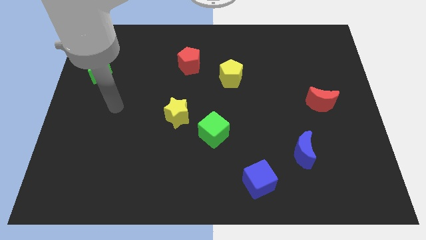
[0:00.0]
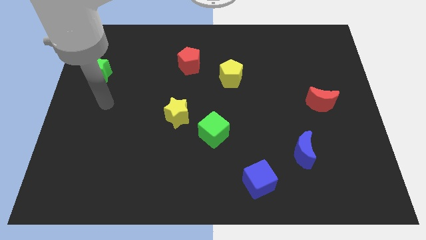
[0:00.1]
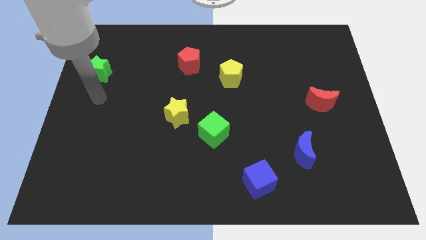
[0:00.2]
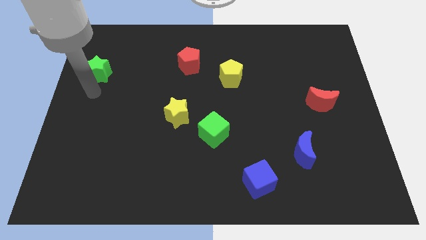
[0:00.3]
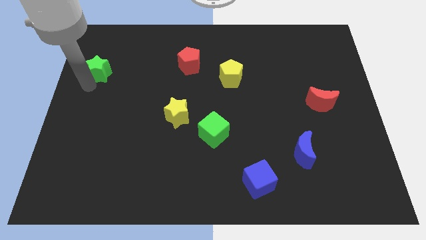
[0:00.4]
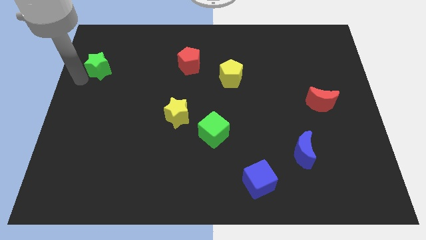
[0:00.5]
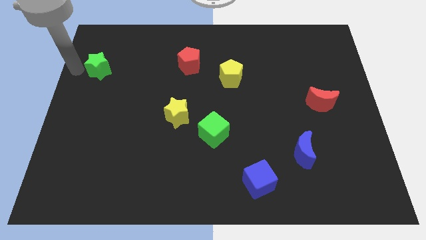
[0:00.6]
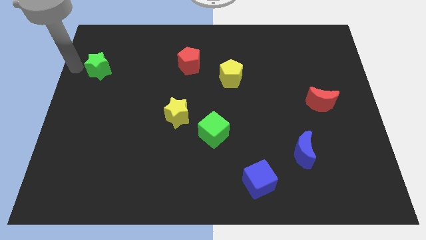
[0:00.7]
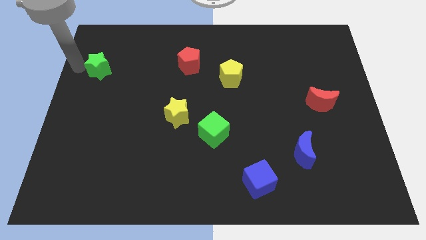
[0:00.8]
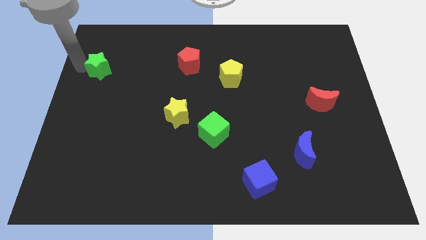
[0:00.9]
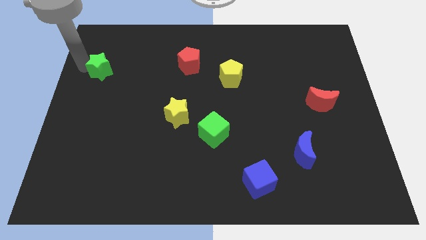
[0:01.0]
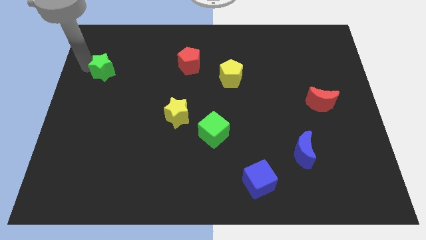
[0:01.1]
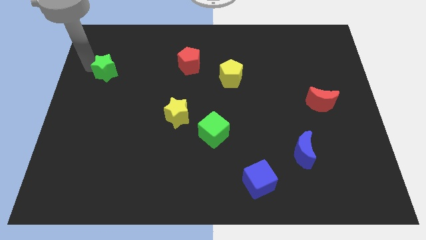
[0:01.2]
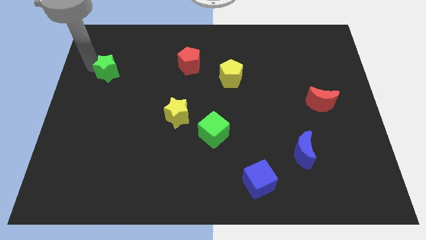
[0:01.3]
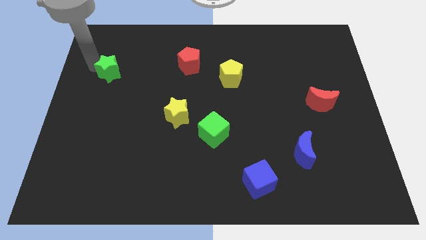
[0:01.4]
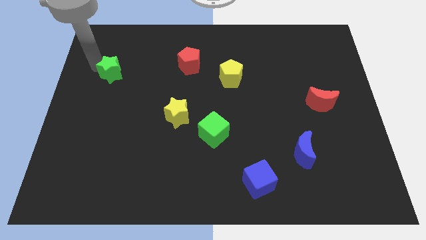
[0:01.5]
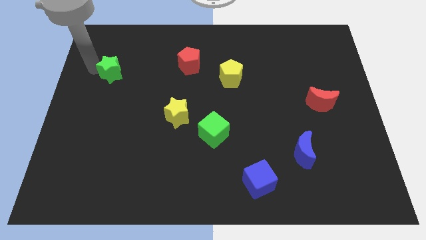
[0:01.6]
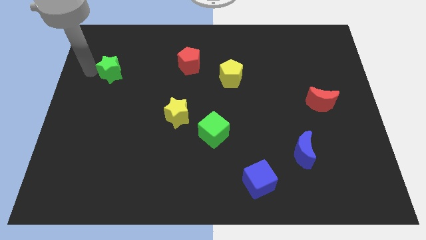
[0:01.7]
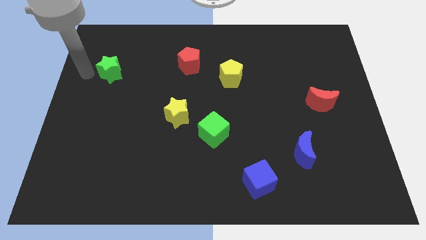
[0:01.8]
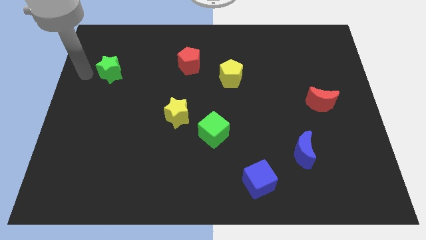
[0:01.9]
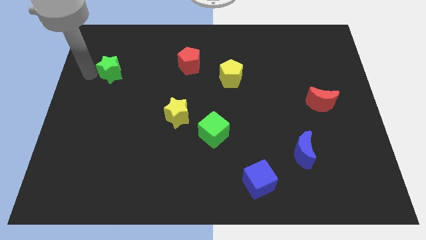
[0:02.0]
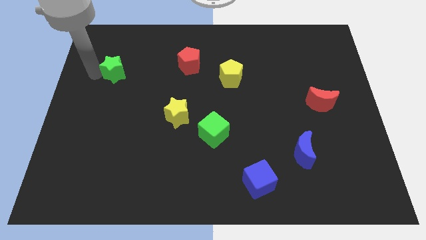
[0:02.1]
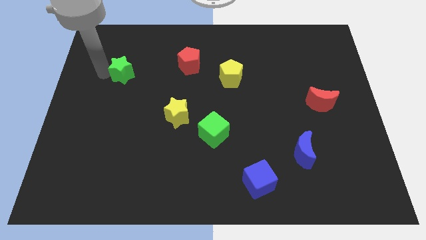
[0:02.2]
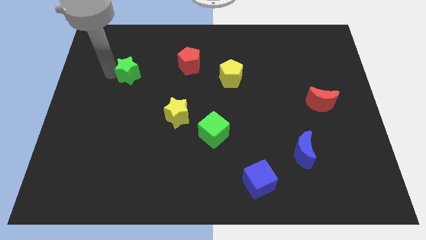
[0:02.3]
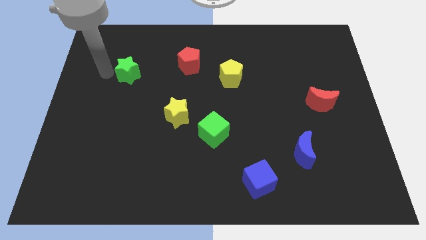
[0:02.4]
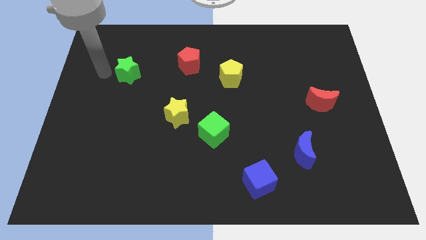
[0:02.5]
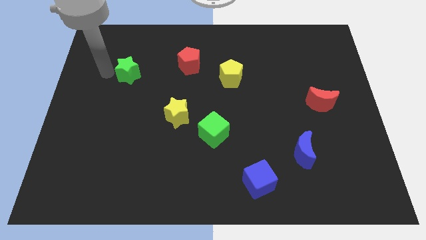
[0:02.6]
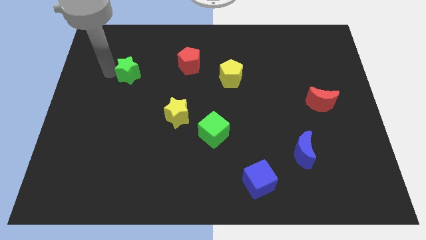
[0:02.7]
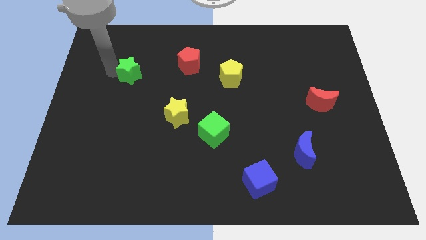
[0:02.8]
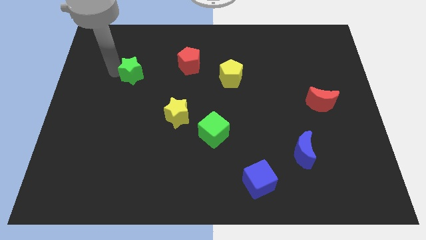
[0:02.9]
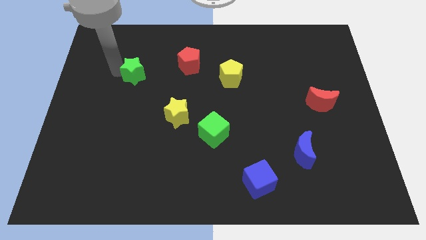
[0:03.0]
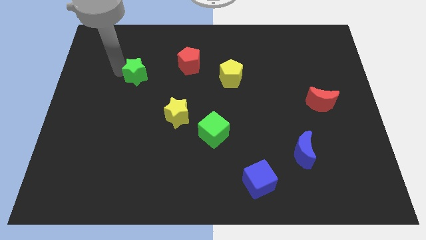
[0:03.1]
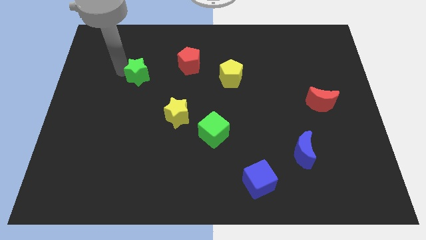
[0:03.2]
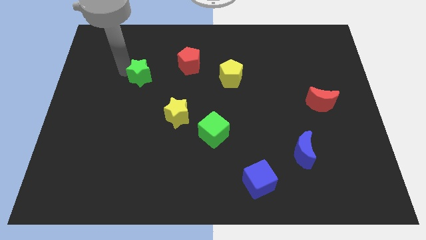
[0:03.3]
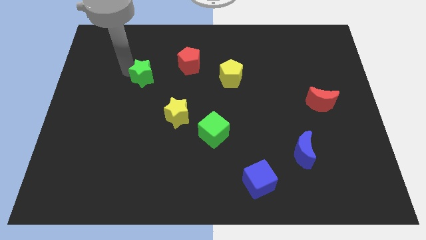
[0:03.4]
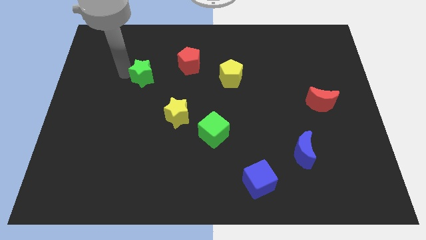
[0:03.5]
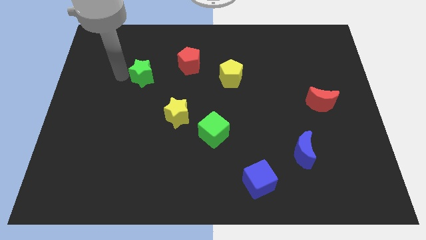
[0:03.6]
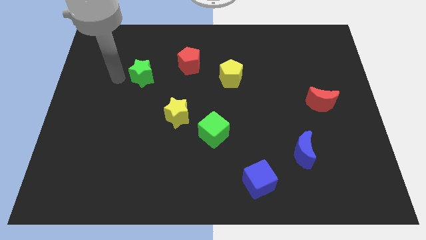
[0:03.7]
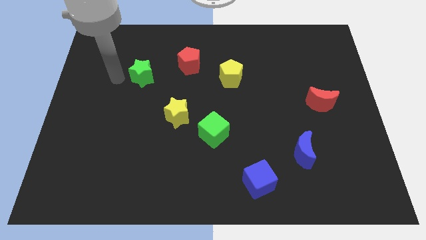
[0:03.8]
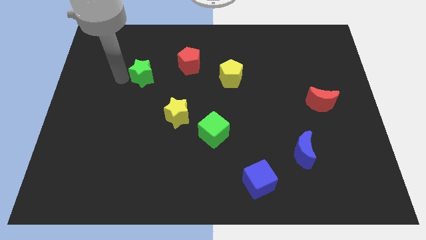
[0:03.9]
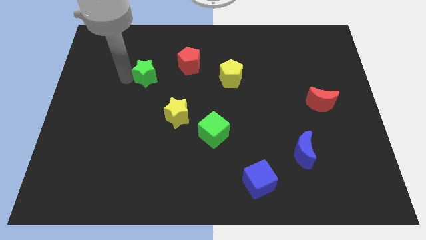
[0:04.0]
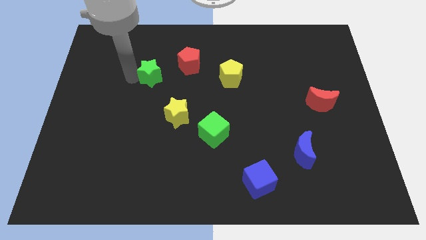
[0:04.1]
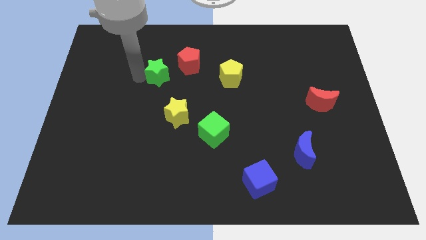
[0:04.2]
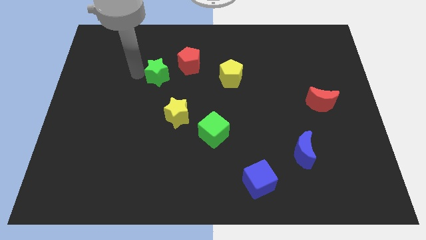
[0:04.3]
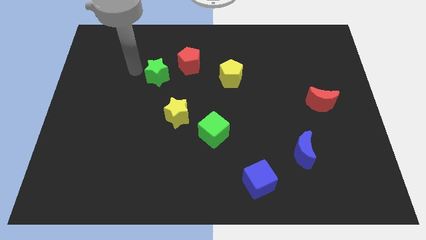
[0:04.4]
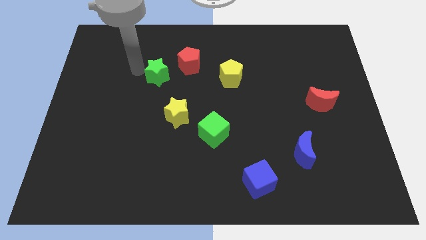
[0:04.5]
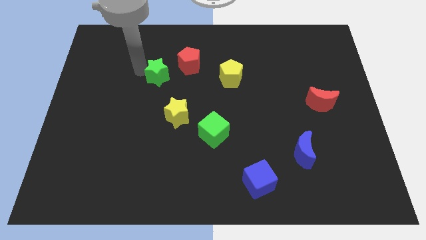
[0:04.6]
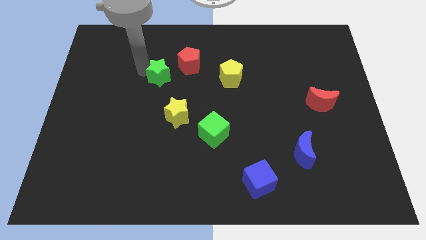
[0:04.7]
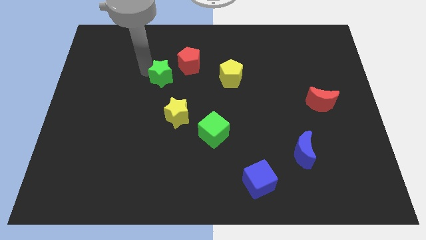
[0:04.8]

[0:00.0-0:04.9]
push the green star to the top of the yellow star

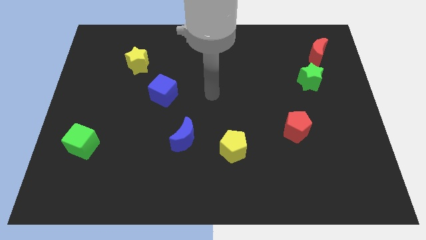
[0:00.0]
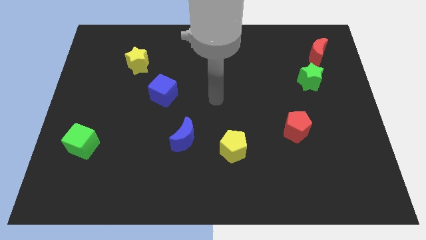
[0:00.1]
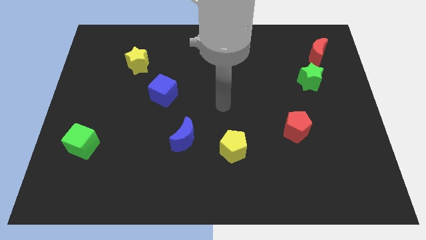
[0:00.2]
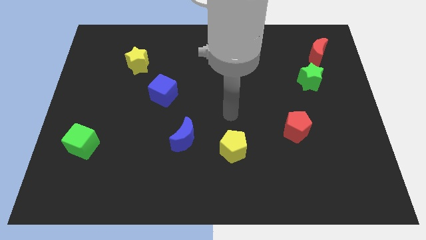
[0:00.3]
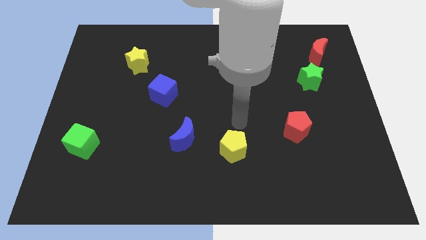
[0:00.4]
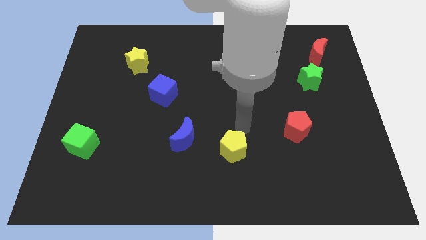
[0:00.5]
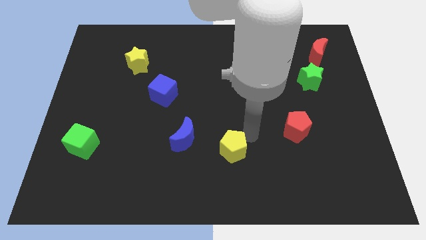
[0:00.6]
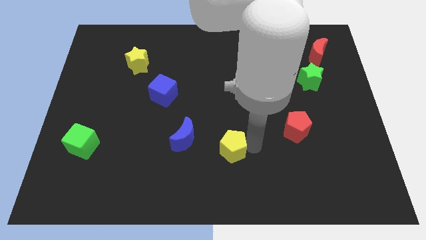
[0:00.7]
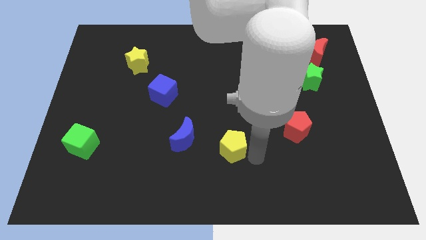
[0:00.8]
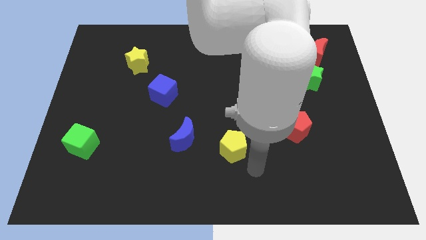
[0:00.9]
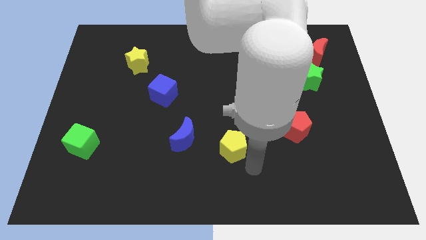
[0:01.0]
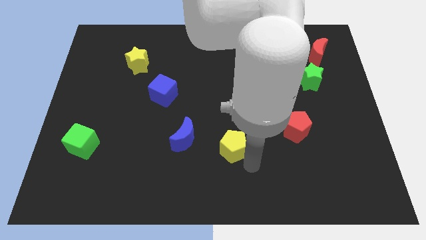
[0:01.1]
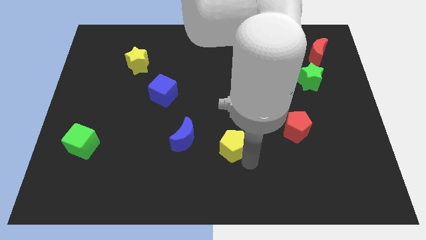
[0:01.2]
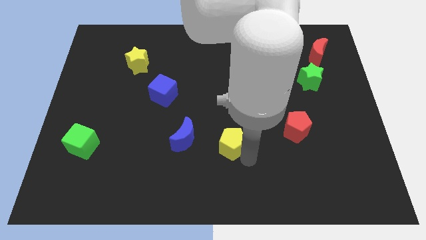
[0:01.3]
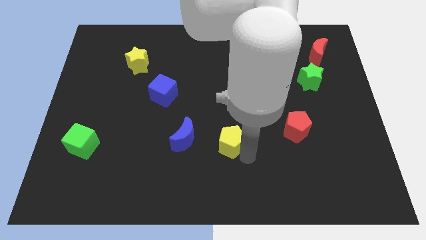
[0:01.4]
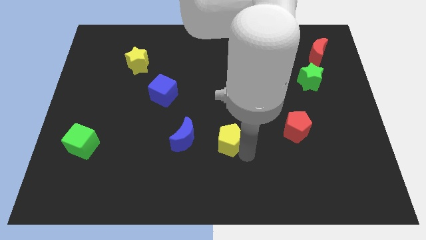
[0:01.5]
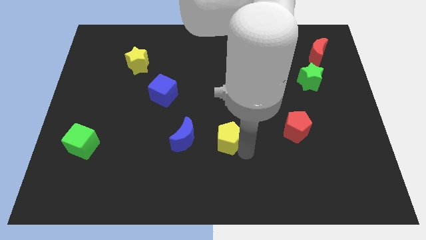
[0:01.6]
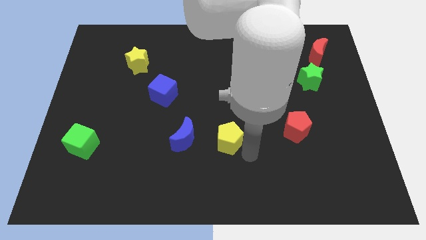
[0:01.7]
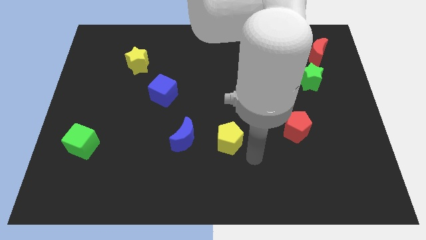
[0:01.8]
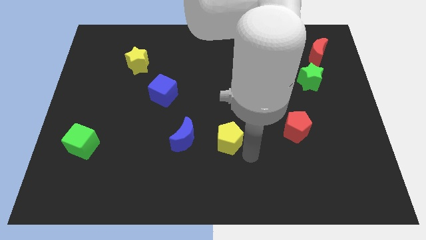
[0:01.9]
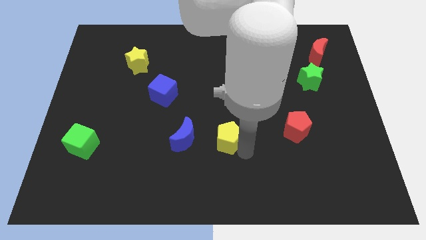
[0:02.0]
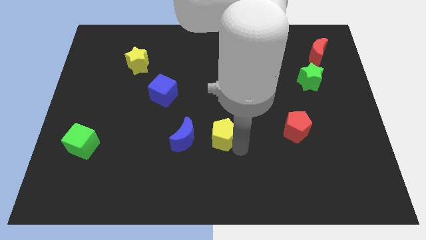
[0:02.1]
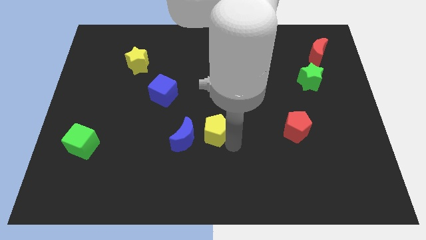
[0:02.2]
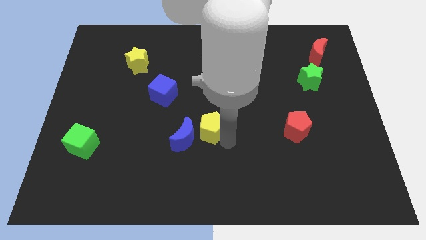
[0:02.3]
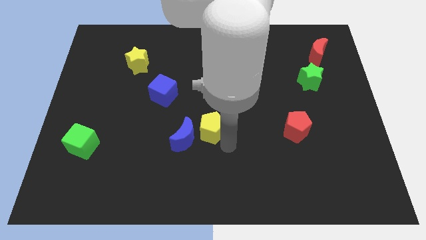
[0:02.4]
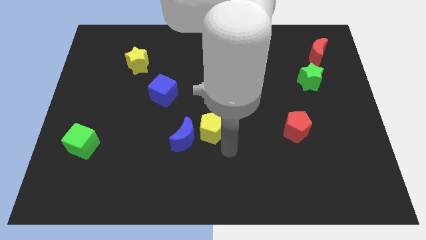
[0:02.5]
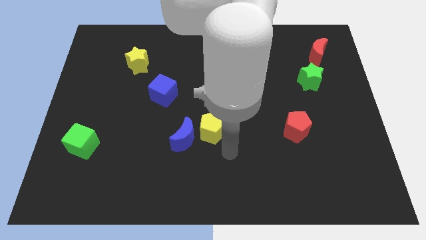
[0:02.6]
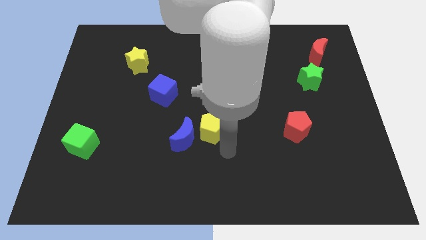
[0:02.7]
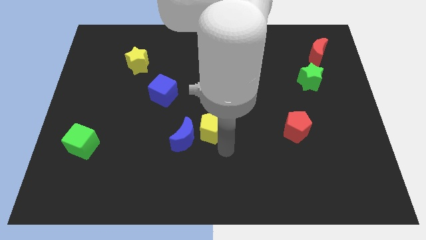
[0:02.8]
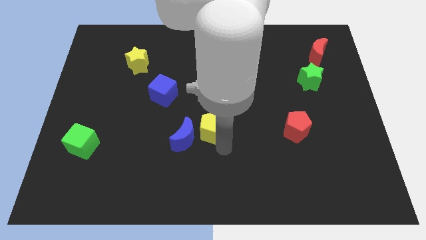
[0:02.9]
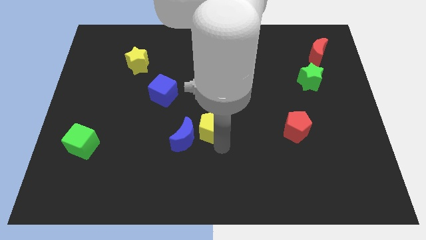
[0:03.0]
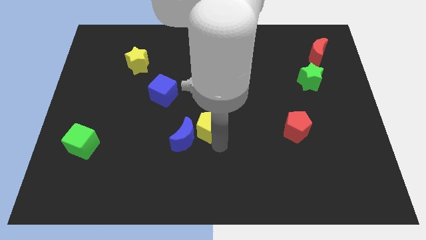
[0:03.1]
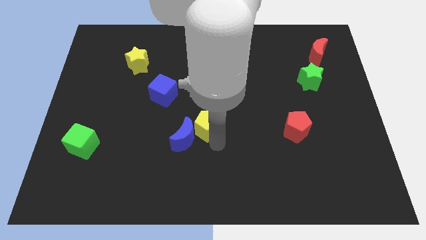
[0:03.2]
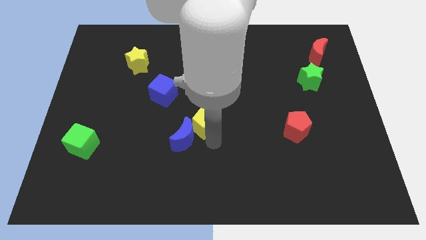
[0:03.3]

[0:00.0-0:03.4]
put the yellow pentagon to the top side of the blue moon

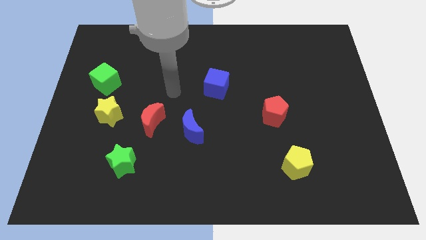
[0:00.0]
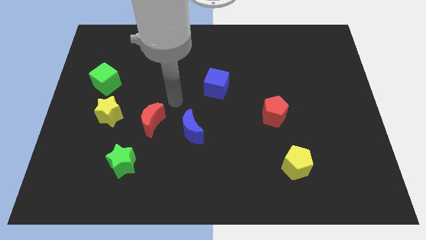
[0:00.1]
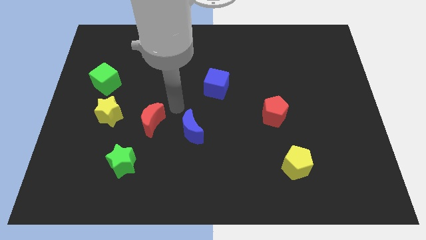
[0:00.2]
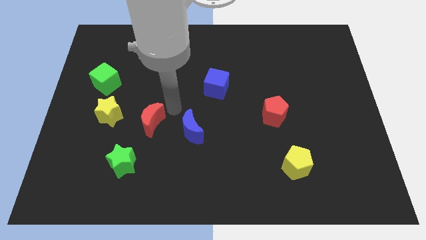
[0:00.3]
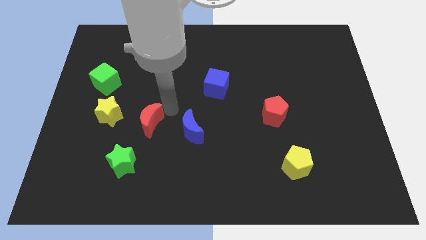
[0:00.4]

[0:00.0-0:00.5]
push the red moon to the bottom right side of the yellow star
